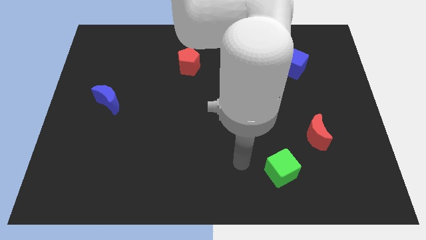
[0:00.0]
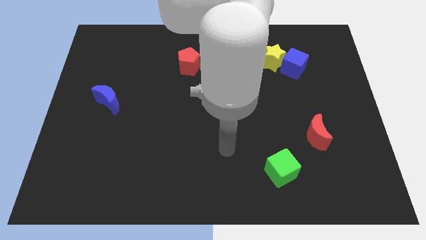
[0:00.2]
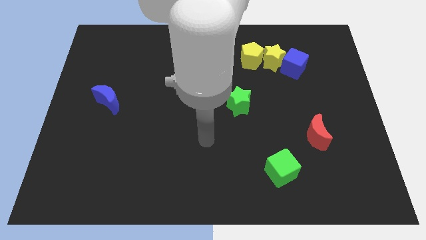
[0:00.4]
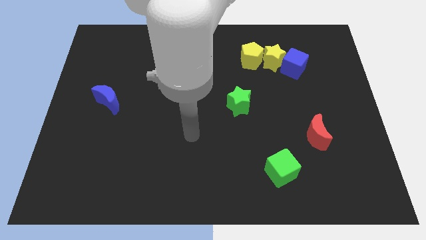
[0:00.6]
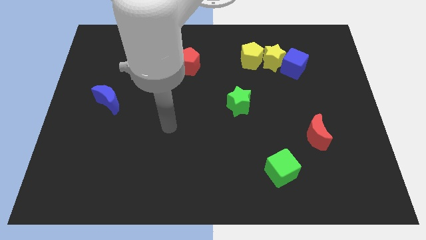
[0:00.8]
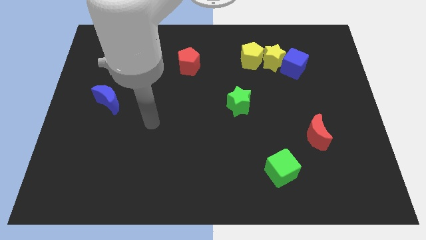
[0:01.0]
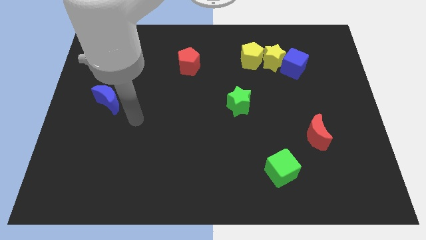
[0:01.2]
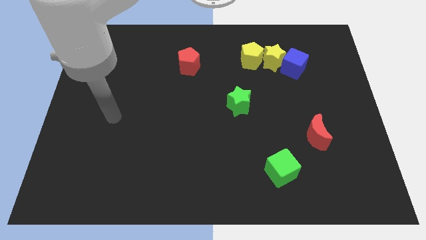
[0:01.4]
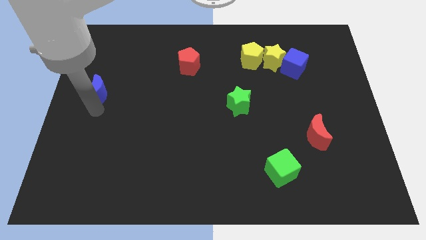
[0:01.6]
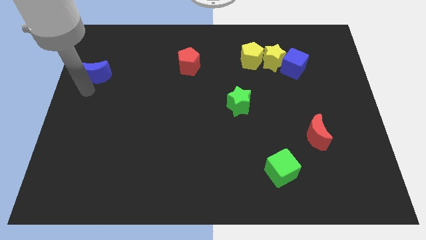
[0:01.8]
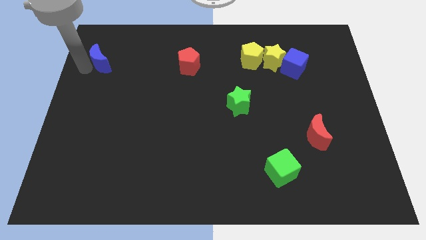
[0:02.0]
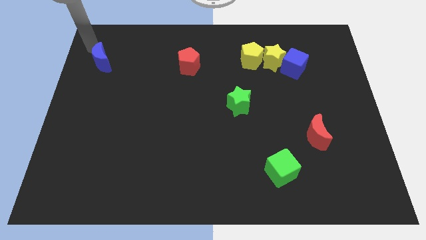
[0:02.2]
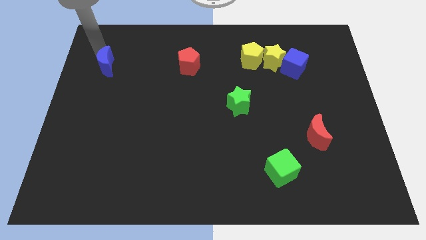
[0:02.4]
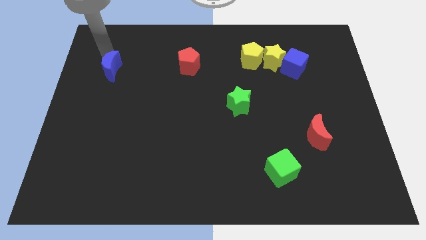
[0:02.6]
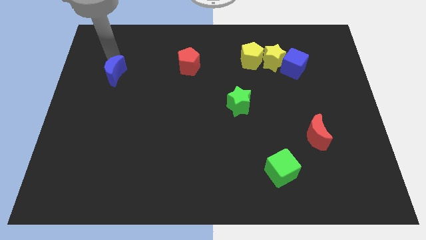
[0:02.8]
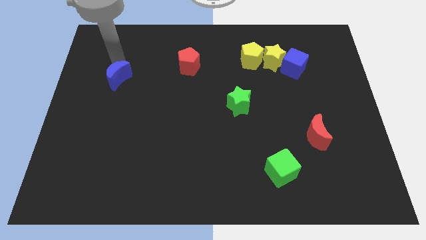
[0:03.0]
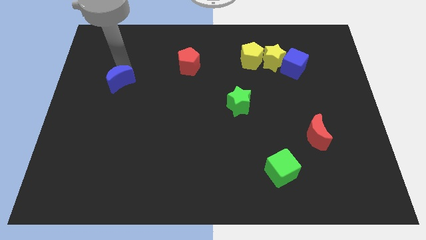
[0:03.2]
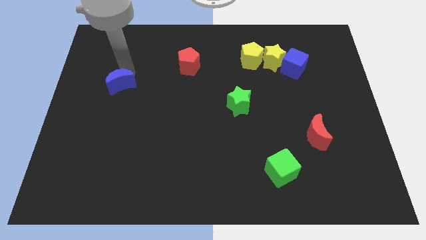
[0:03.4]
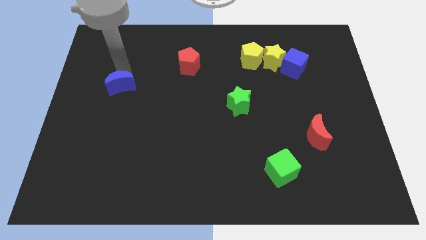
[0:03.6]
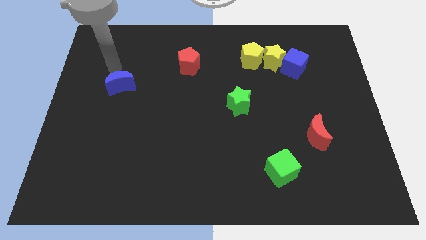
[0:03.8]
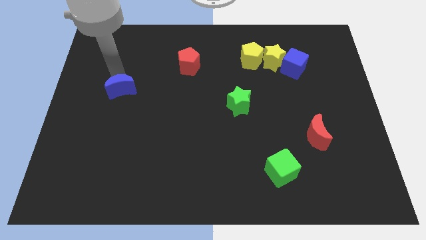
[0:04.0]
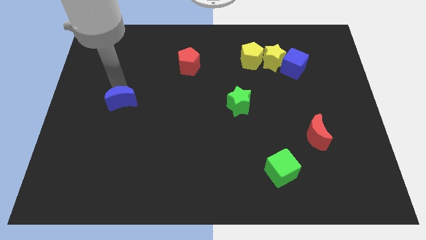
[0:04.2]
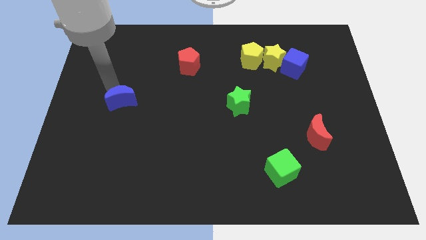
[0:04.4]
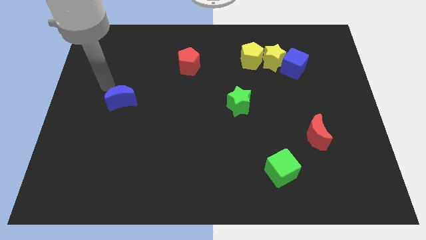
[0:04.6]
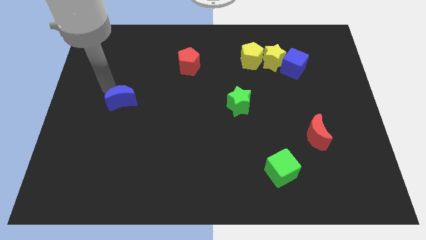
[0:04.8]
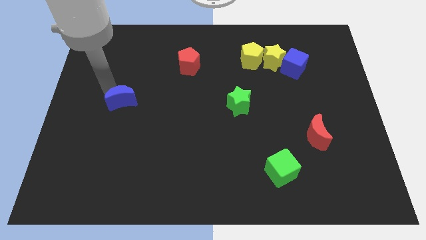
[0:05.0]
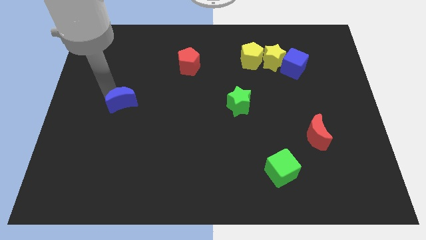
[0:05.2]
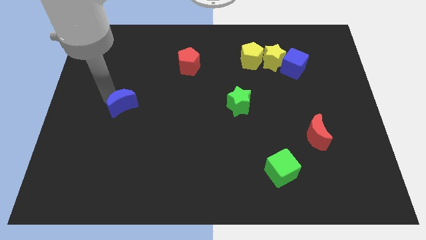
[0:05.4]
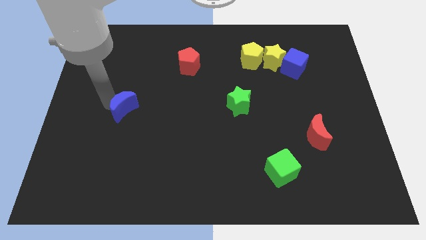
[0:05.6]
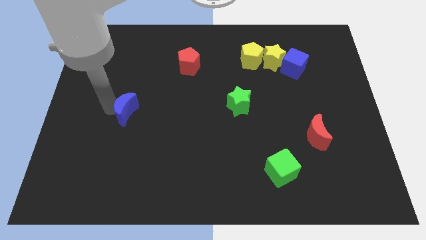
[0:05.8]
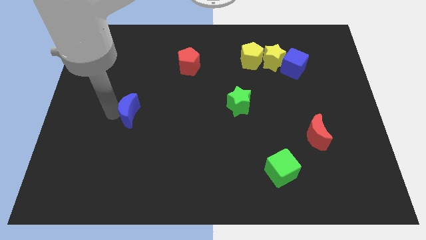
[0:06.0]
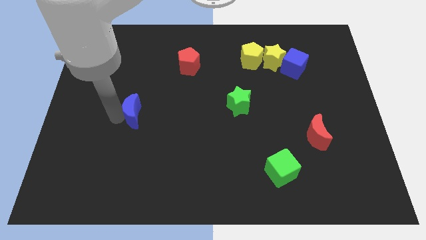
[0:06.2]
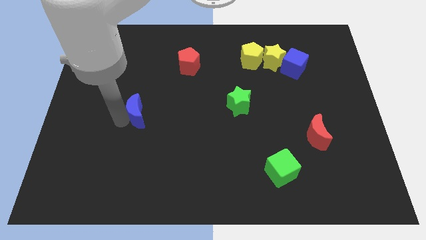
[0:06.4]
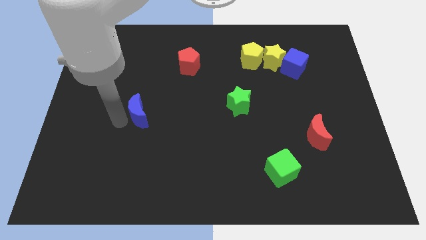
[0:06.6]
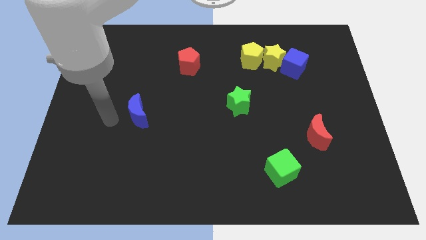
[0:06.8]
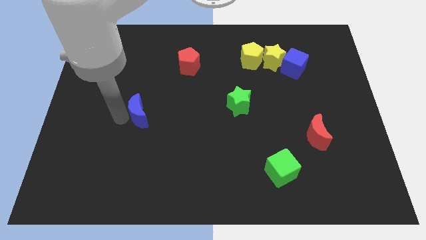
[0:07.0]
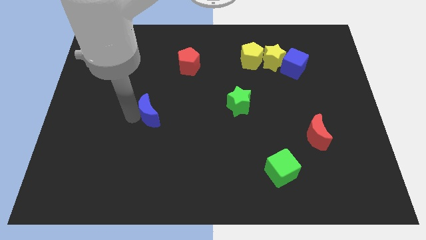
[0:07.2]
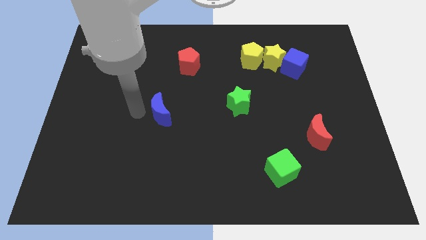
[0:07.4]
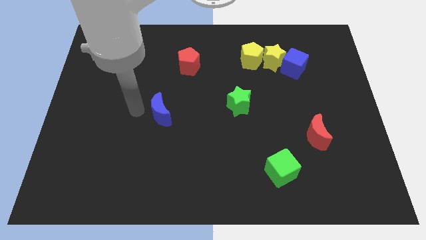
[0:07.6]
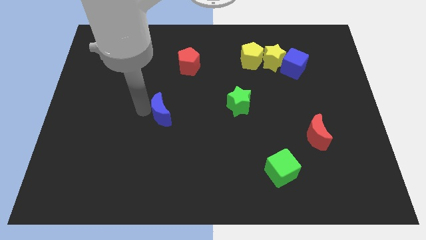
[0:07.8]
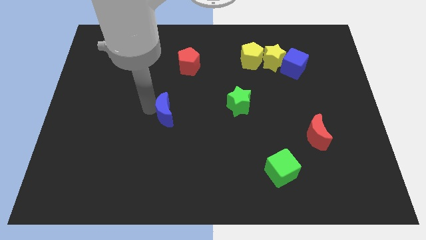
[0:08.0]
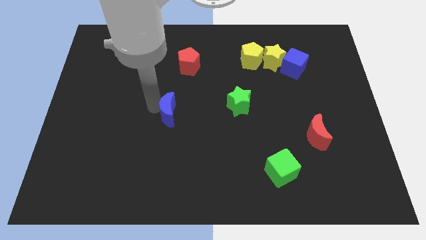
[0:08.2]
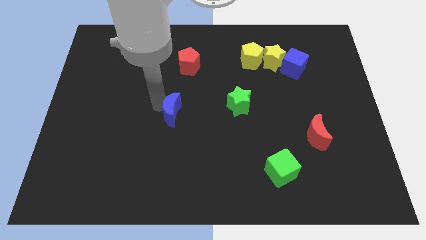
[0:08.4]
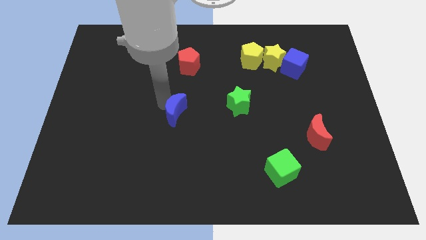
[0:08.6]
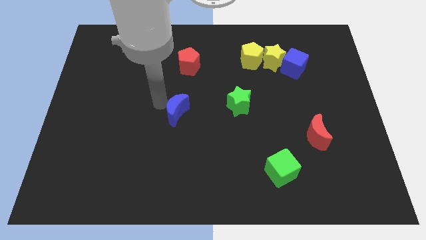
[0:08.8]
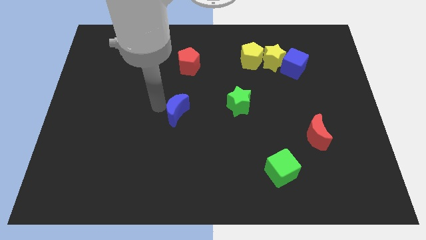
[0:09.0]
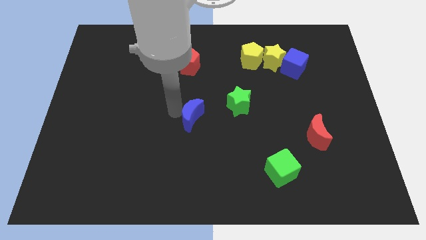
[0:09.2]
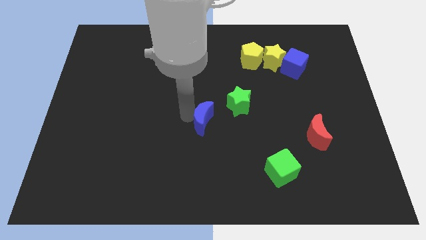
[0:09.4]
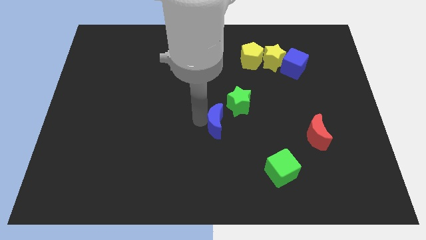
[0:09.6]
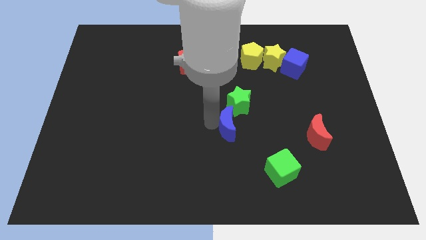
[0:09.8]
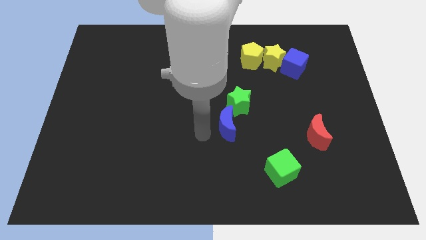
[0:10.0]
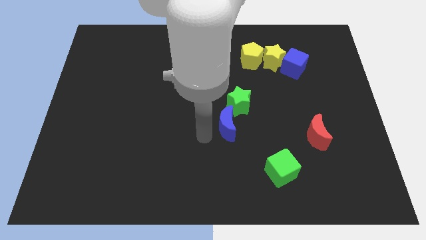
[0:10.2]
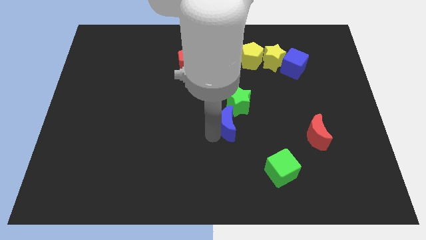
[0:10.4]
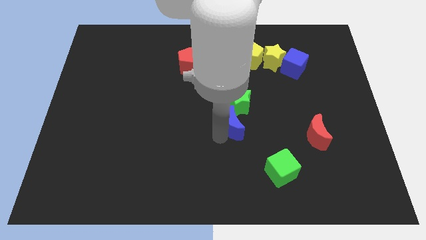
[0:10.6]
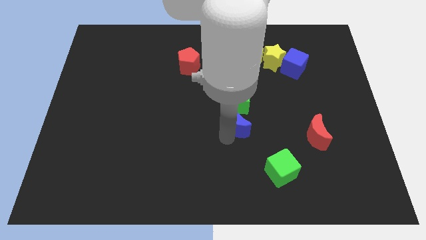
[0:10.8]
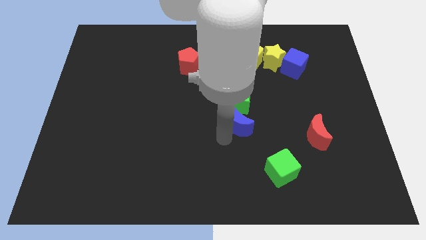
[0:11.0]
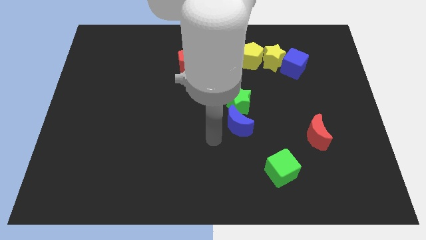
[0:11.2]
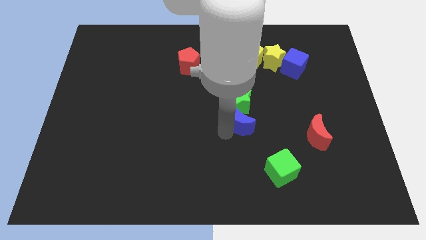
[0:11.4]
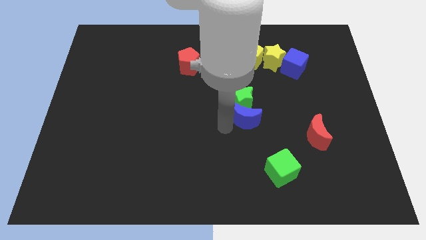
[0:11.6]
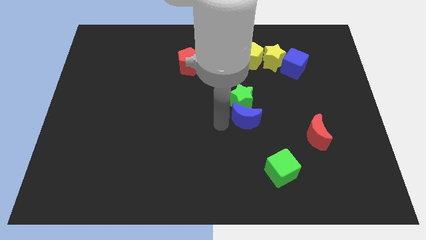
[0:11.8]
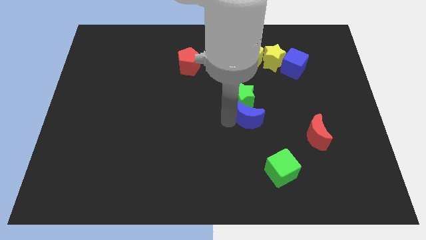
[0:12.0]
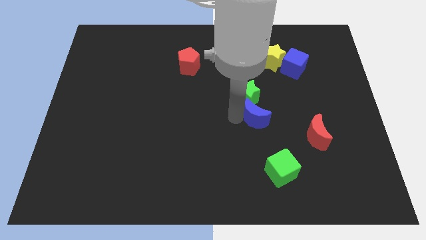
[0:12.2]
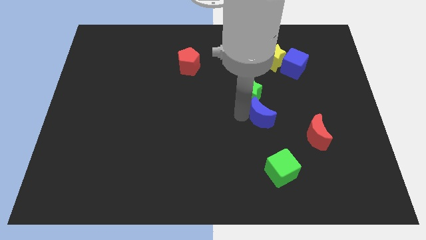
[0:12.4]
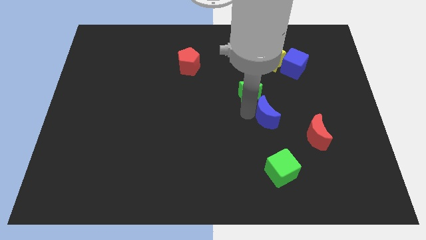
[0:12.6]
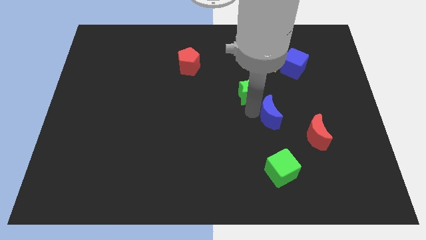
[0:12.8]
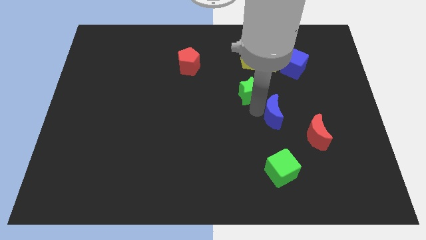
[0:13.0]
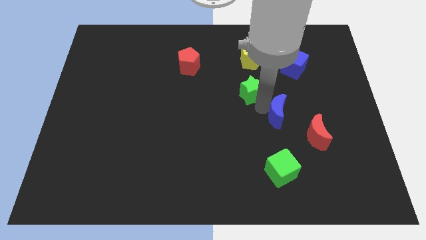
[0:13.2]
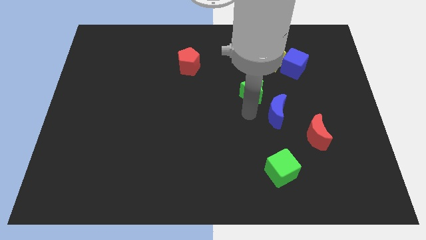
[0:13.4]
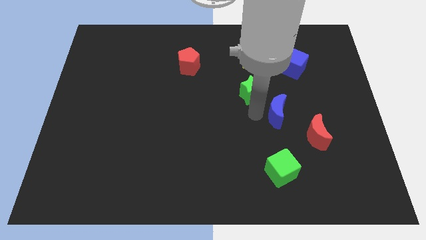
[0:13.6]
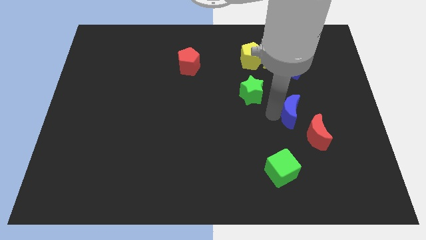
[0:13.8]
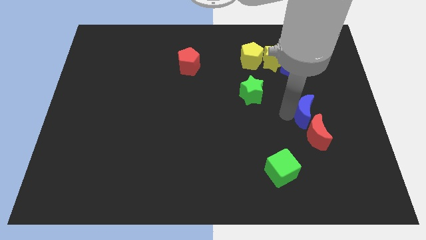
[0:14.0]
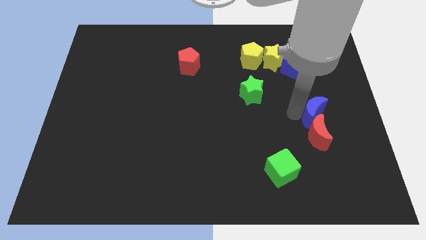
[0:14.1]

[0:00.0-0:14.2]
move the blue moon diagonally up and to the right of the red moon
